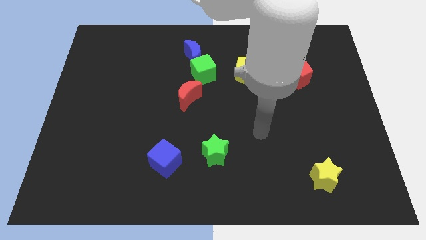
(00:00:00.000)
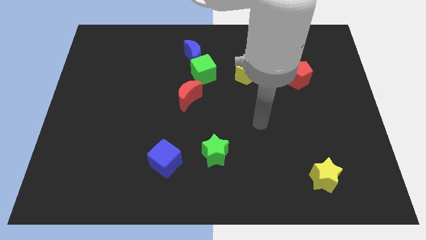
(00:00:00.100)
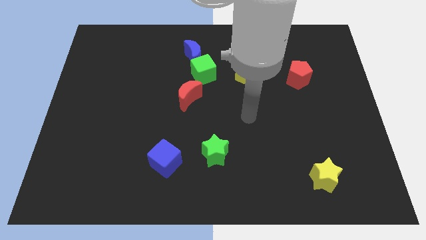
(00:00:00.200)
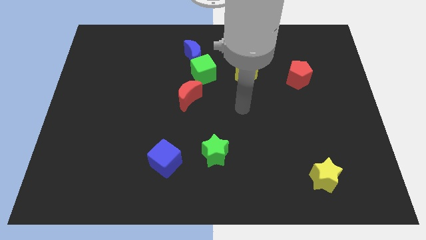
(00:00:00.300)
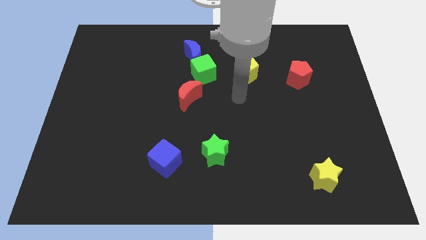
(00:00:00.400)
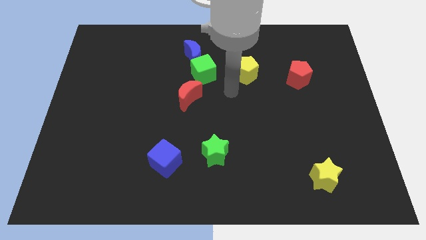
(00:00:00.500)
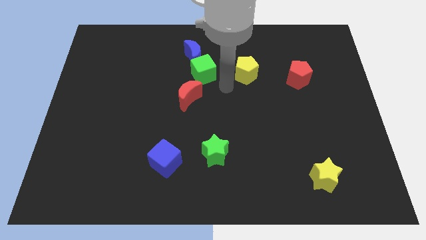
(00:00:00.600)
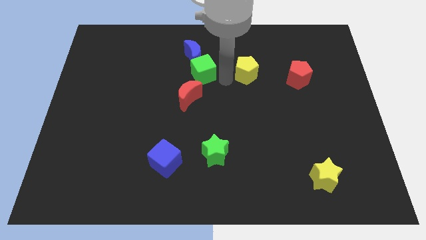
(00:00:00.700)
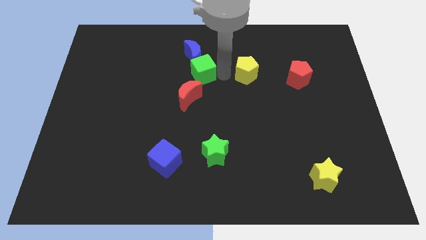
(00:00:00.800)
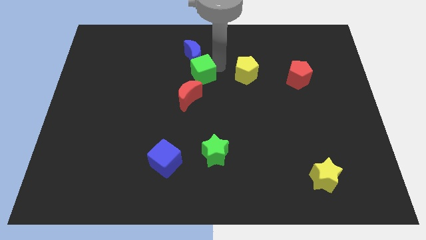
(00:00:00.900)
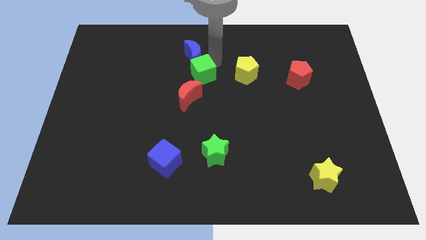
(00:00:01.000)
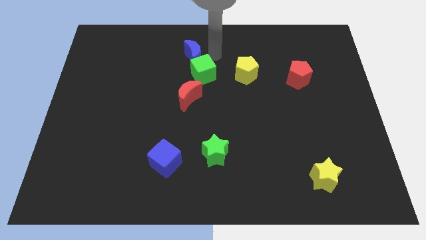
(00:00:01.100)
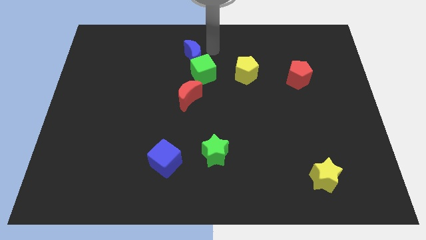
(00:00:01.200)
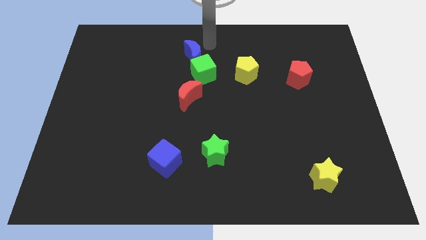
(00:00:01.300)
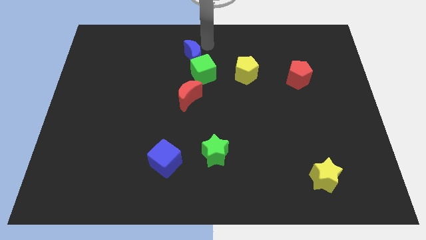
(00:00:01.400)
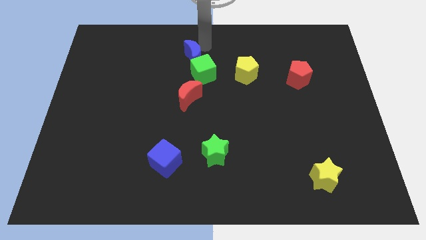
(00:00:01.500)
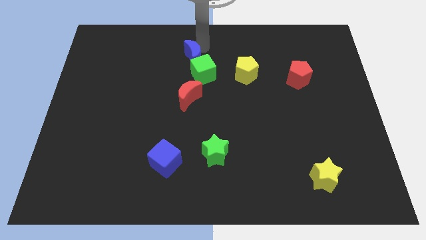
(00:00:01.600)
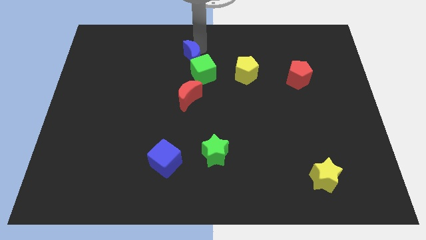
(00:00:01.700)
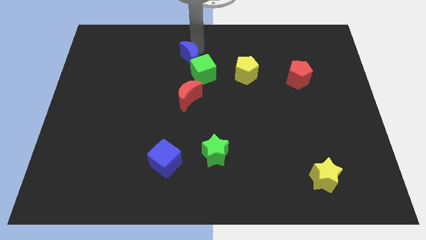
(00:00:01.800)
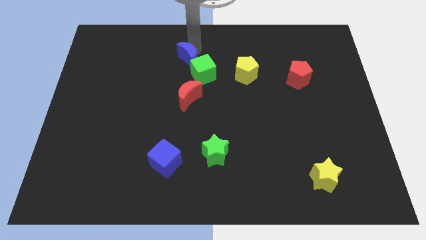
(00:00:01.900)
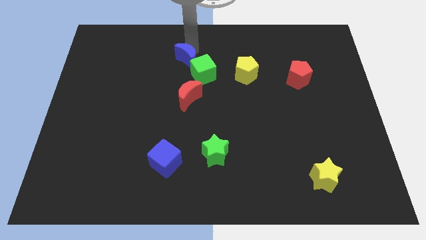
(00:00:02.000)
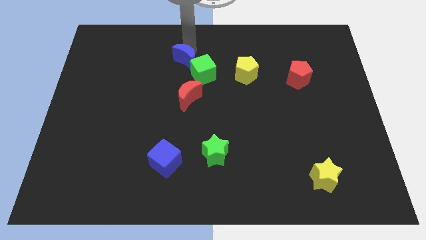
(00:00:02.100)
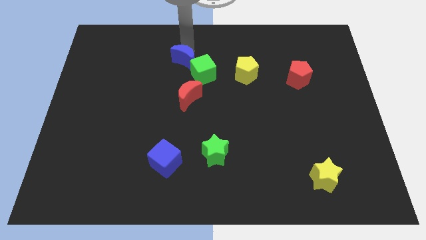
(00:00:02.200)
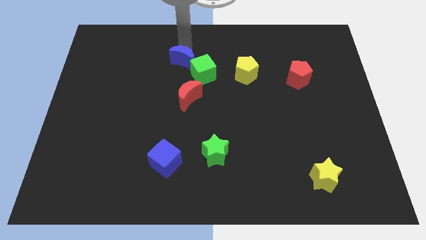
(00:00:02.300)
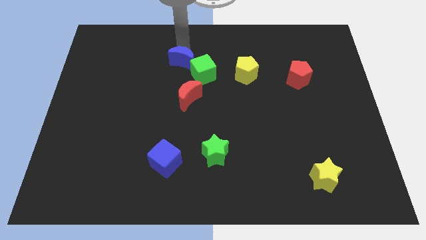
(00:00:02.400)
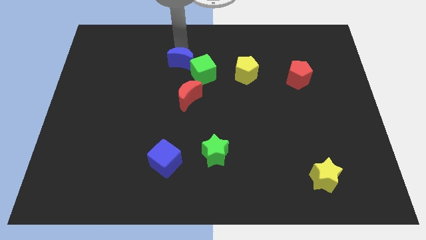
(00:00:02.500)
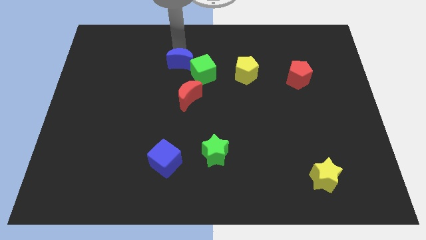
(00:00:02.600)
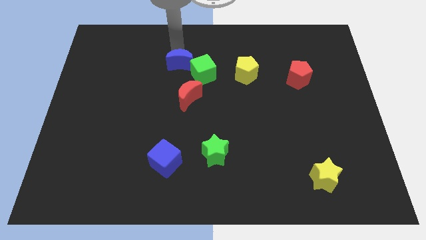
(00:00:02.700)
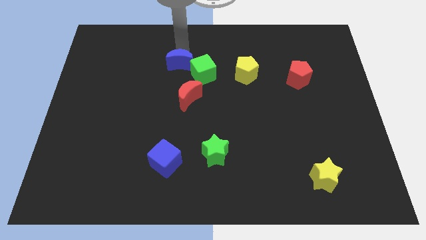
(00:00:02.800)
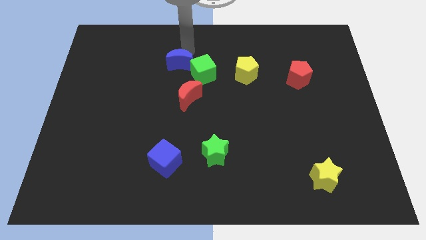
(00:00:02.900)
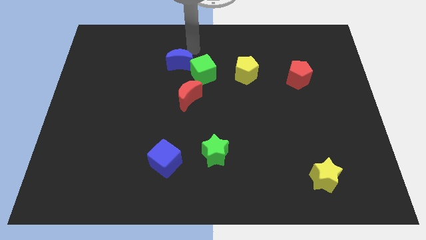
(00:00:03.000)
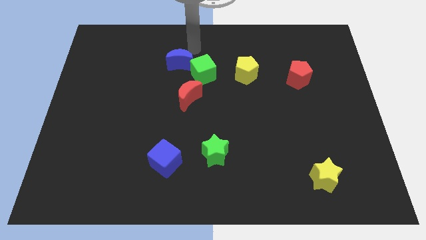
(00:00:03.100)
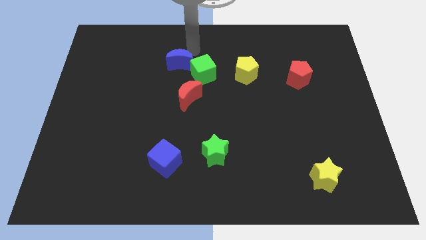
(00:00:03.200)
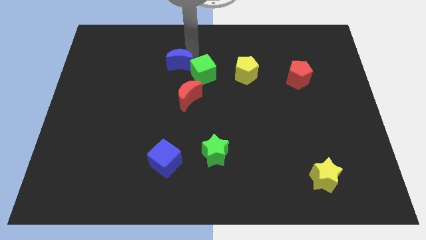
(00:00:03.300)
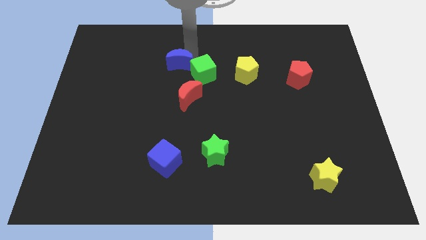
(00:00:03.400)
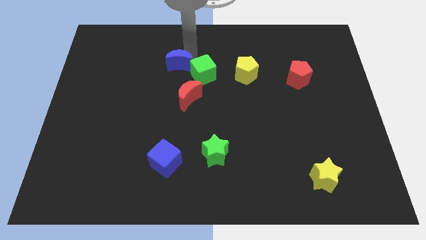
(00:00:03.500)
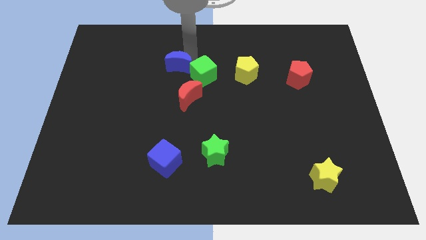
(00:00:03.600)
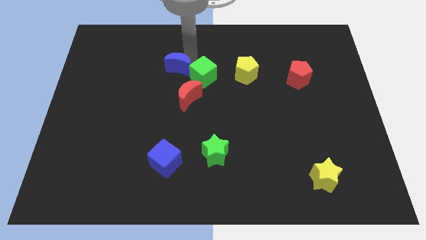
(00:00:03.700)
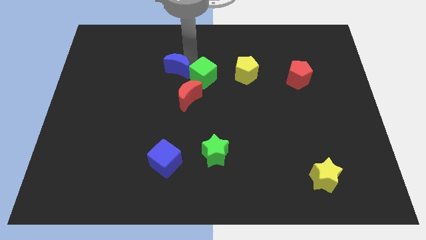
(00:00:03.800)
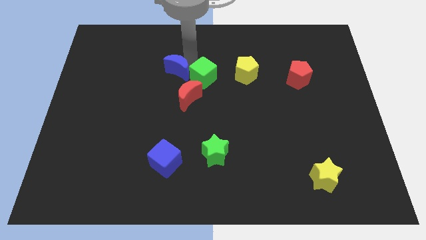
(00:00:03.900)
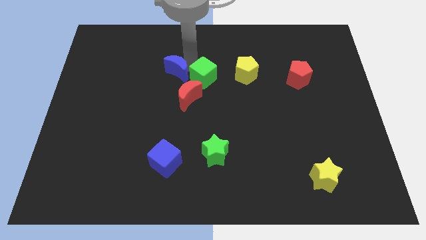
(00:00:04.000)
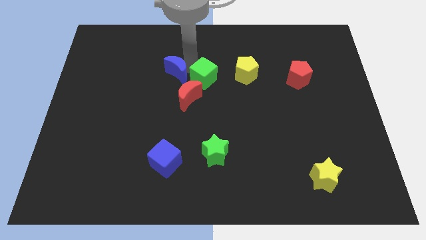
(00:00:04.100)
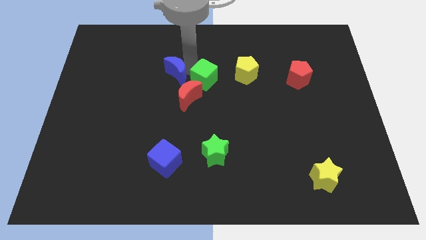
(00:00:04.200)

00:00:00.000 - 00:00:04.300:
slightly push the blue moon downwards and left

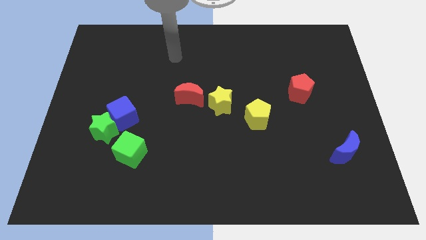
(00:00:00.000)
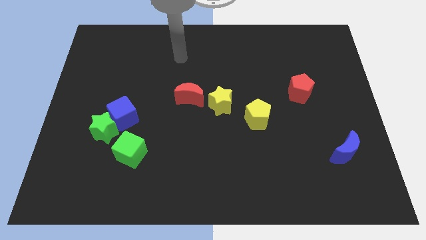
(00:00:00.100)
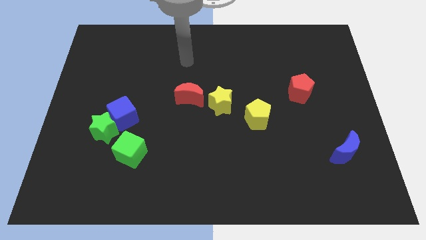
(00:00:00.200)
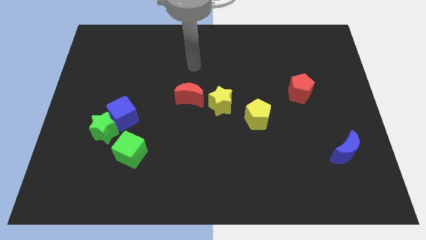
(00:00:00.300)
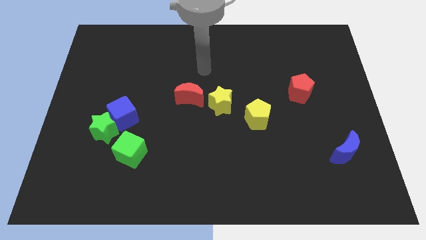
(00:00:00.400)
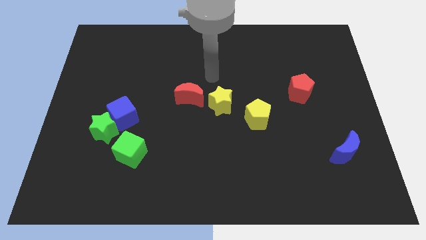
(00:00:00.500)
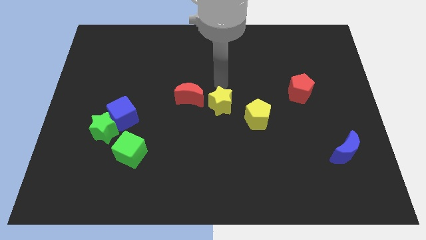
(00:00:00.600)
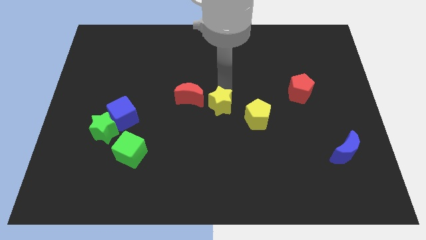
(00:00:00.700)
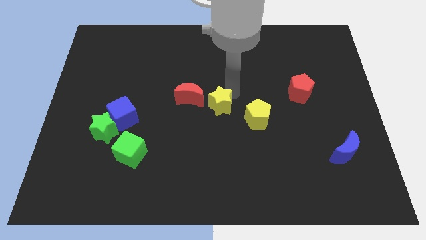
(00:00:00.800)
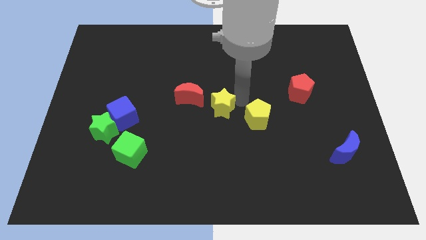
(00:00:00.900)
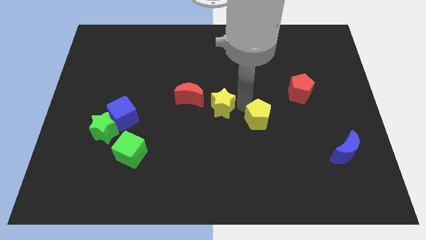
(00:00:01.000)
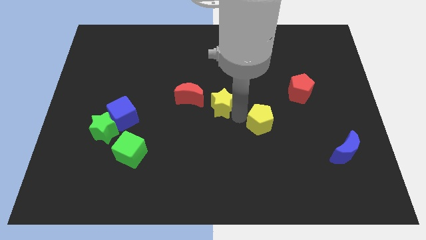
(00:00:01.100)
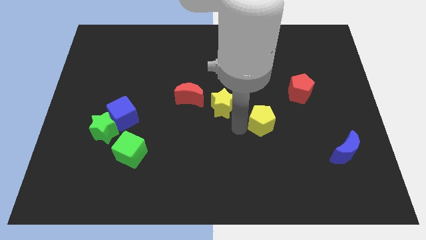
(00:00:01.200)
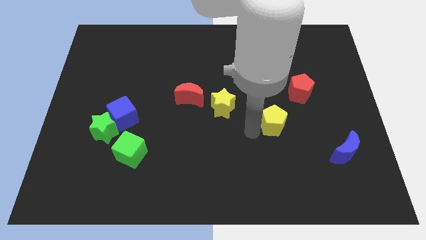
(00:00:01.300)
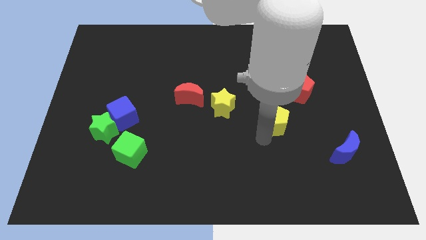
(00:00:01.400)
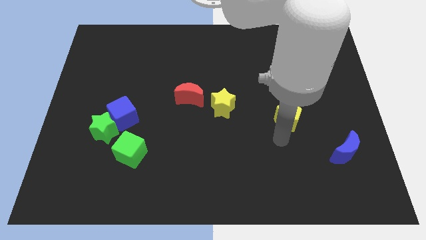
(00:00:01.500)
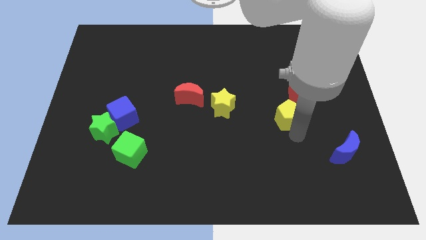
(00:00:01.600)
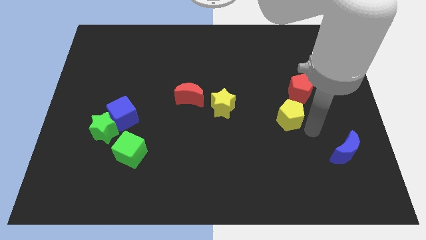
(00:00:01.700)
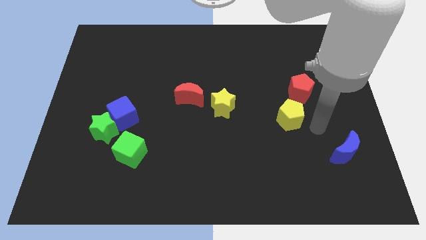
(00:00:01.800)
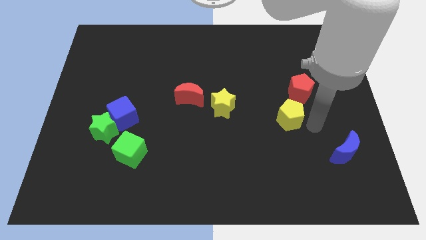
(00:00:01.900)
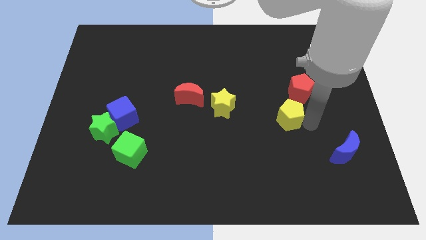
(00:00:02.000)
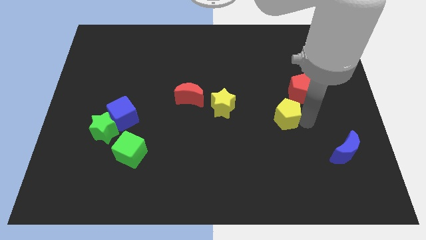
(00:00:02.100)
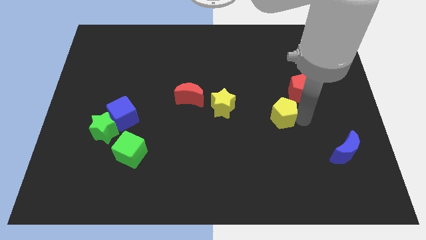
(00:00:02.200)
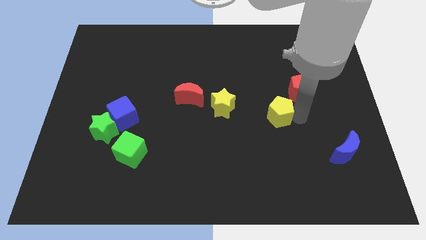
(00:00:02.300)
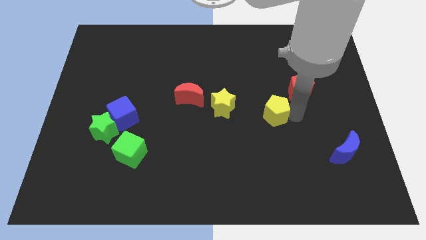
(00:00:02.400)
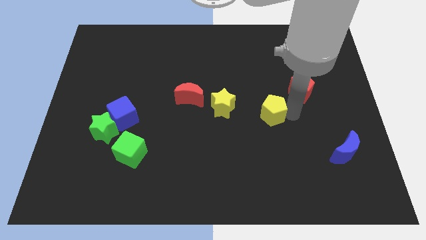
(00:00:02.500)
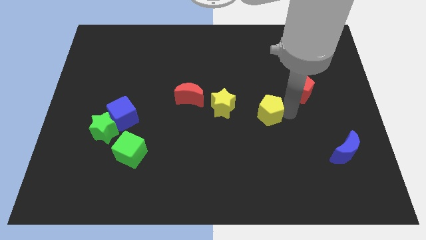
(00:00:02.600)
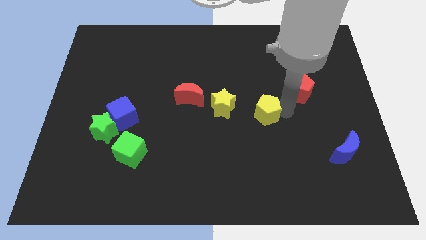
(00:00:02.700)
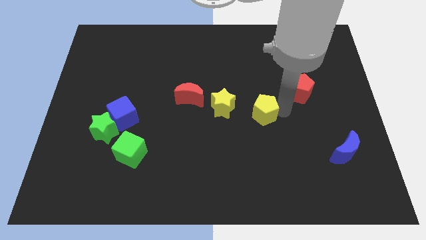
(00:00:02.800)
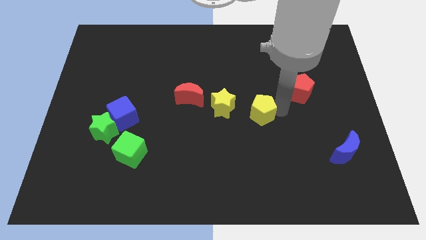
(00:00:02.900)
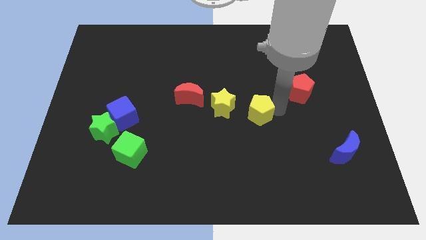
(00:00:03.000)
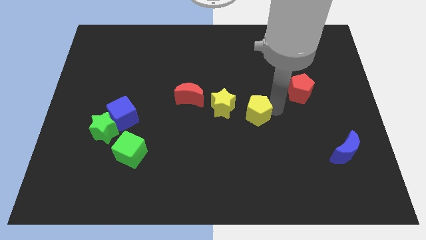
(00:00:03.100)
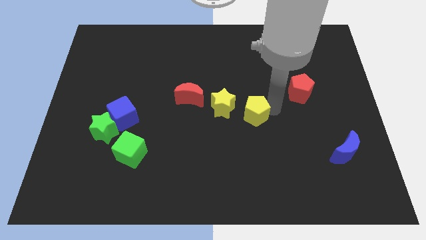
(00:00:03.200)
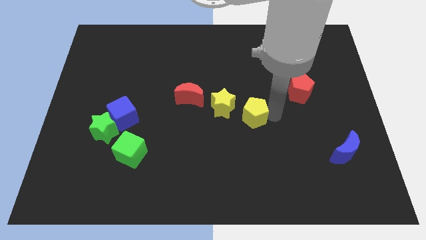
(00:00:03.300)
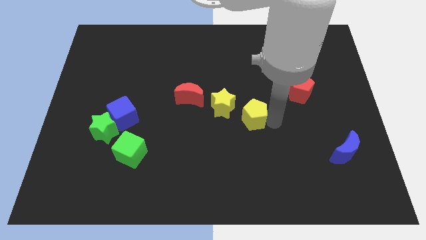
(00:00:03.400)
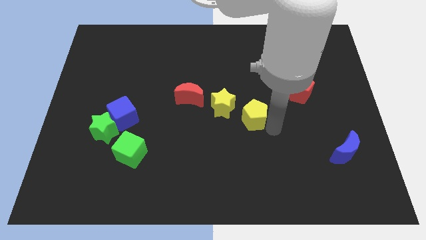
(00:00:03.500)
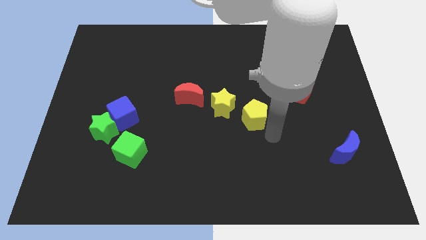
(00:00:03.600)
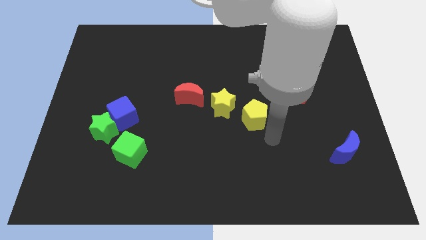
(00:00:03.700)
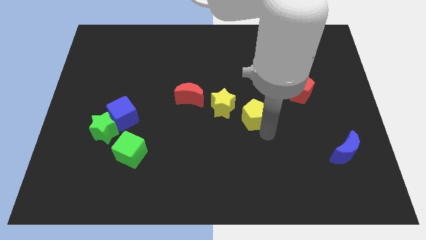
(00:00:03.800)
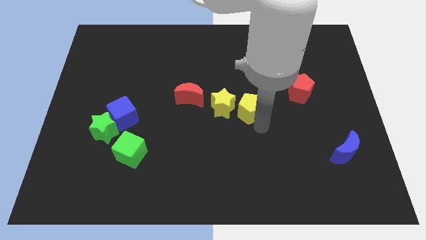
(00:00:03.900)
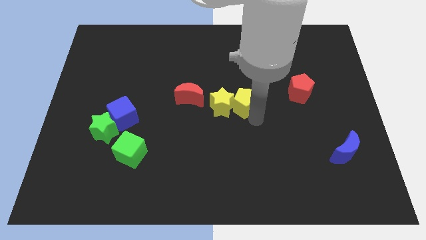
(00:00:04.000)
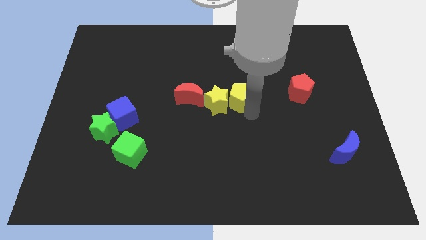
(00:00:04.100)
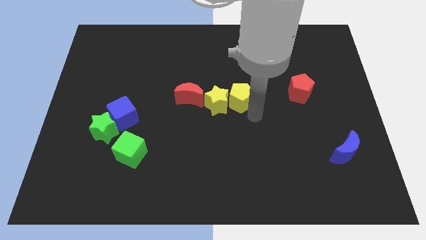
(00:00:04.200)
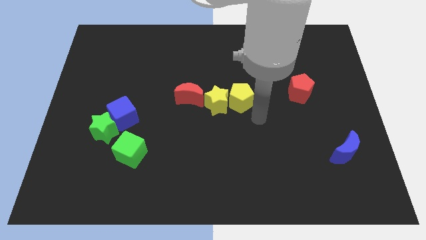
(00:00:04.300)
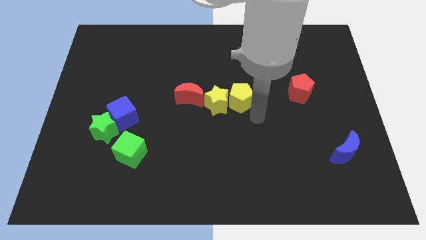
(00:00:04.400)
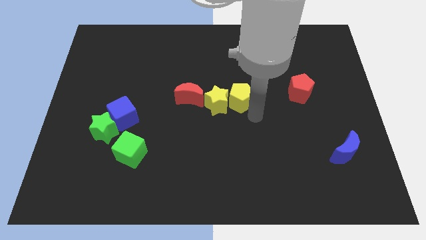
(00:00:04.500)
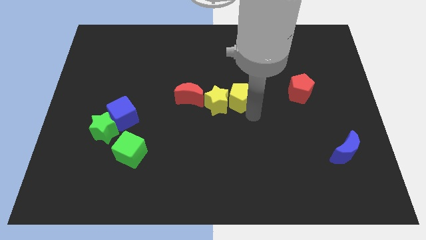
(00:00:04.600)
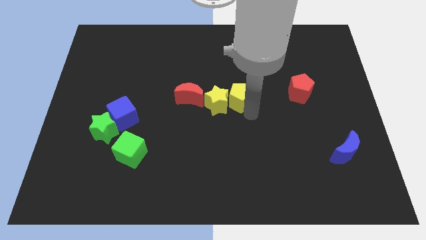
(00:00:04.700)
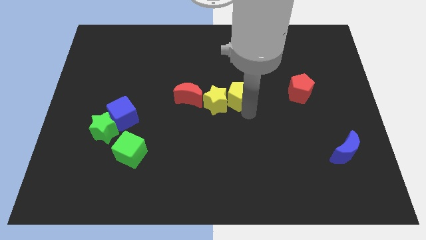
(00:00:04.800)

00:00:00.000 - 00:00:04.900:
slightly move the yellow pentagon diagonally up and to the left
